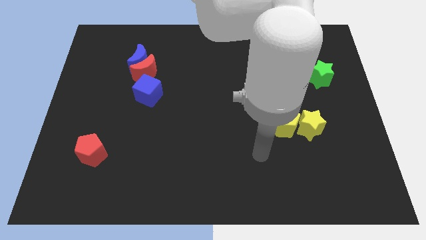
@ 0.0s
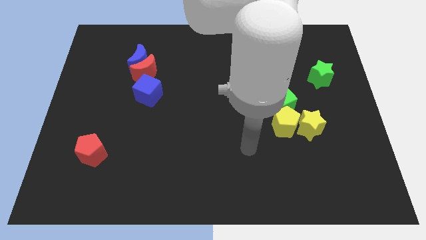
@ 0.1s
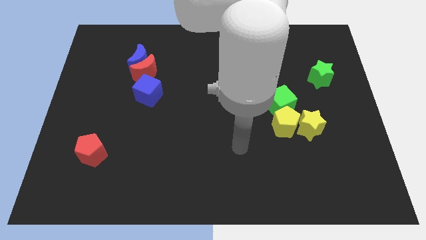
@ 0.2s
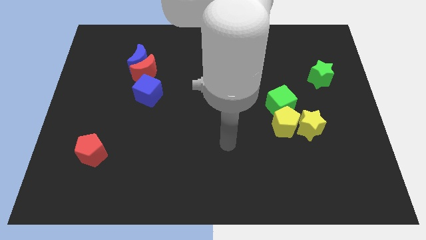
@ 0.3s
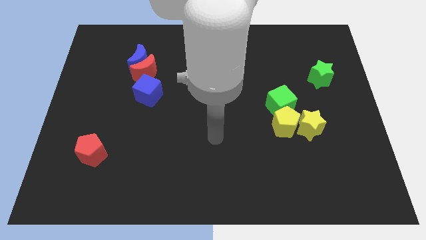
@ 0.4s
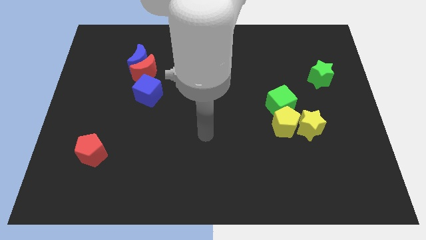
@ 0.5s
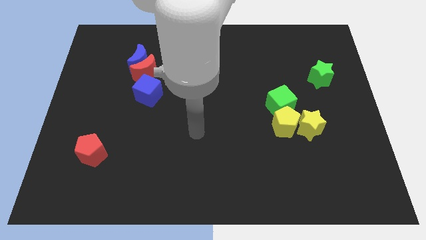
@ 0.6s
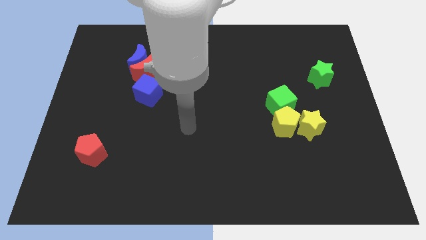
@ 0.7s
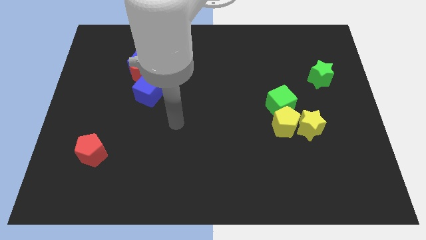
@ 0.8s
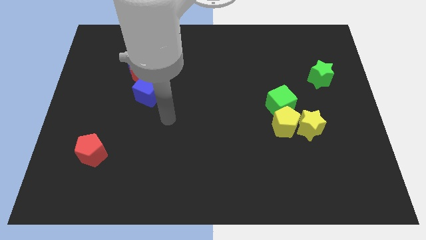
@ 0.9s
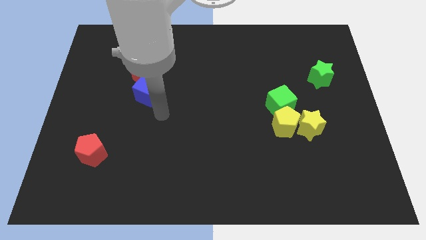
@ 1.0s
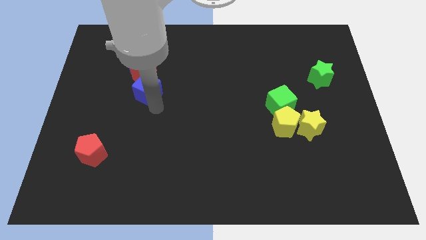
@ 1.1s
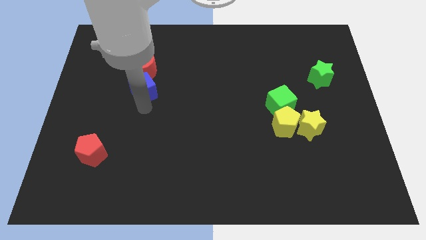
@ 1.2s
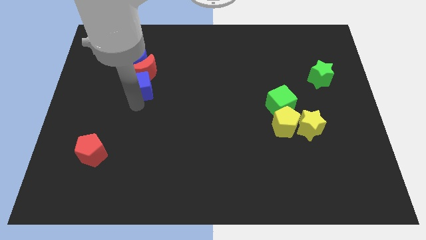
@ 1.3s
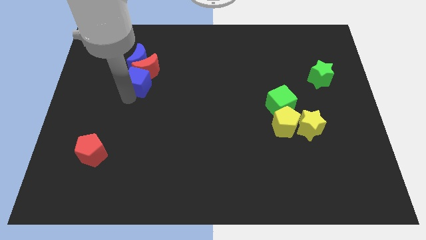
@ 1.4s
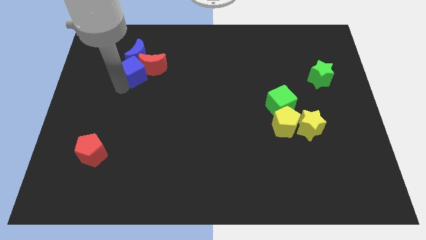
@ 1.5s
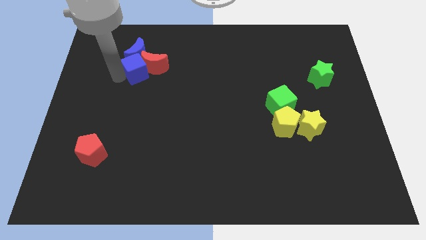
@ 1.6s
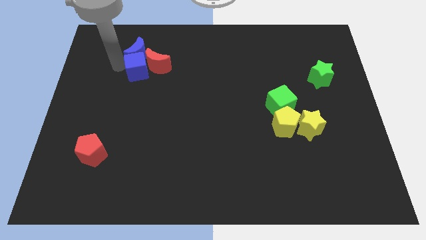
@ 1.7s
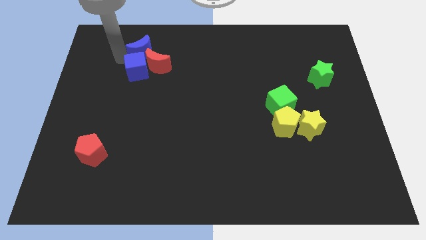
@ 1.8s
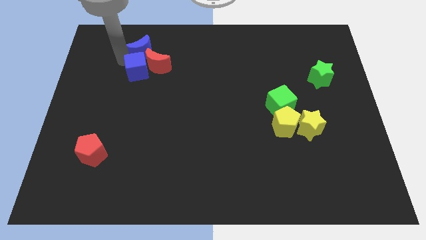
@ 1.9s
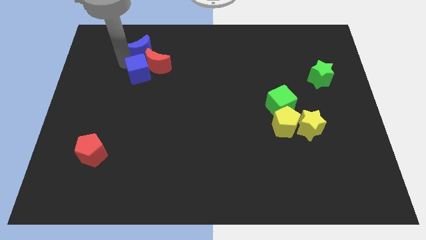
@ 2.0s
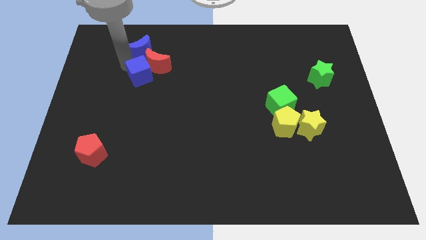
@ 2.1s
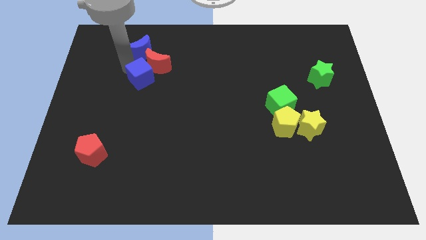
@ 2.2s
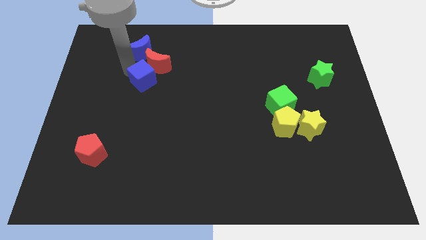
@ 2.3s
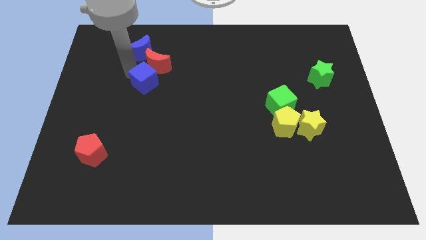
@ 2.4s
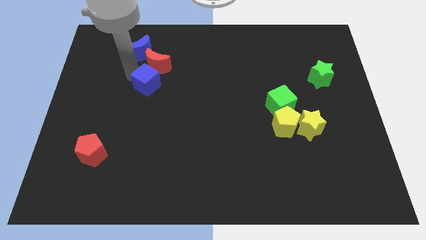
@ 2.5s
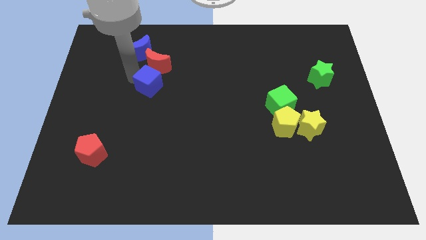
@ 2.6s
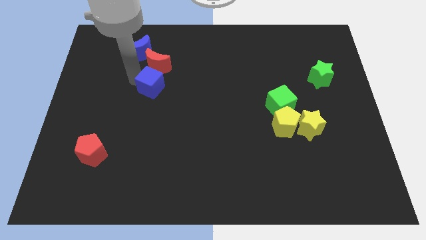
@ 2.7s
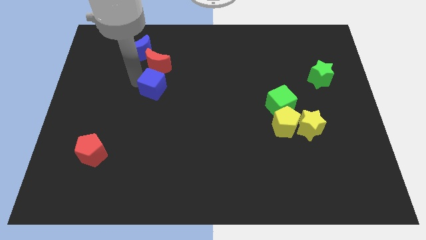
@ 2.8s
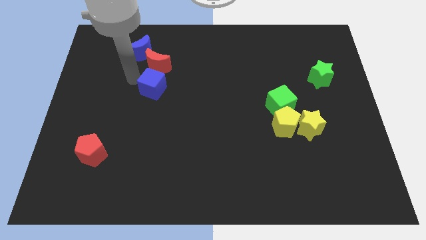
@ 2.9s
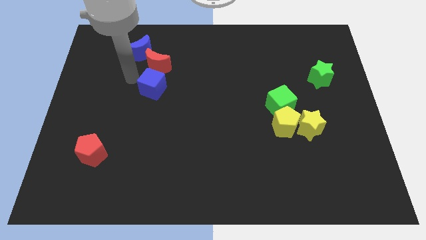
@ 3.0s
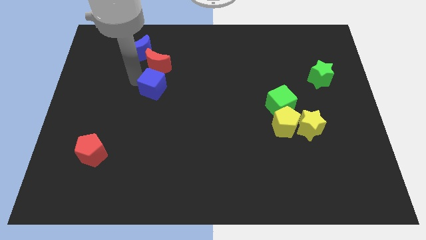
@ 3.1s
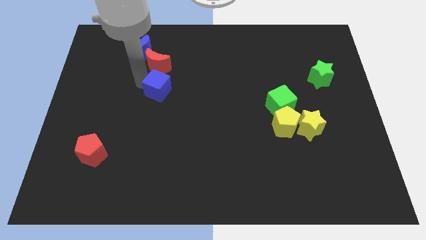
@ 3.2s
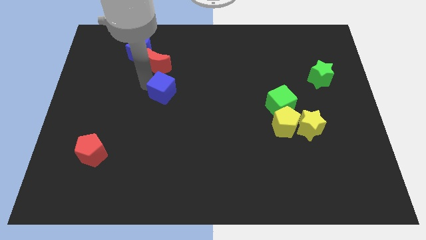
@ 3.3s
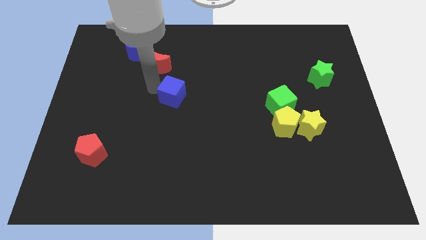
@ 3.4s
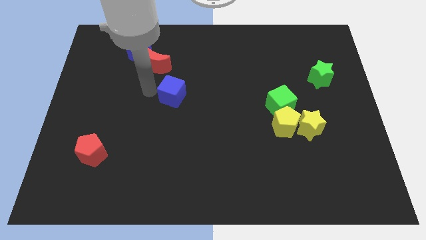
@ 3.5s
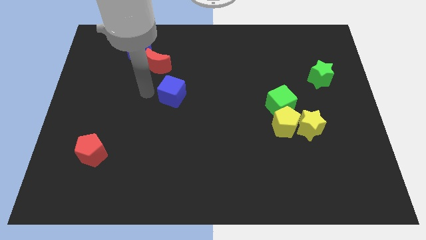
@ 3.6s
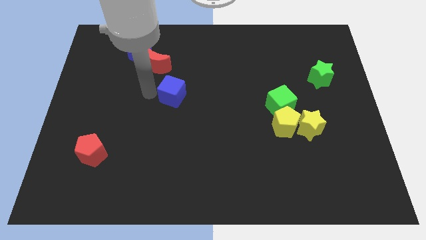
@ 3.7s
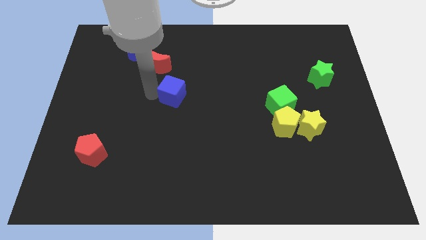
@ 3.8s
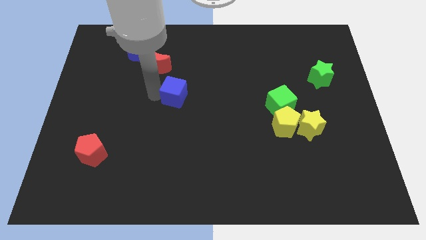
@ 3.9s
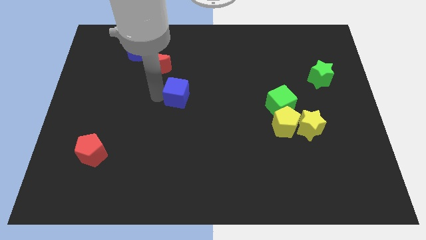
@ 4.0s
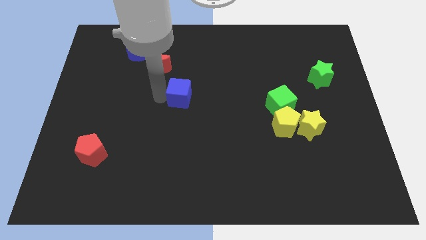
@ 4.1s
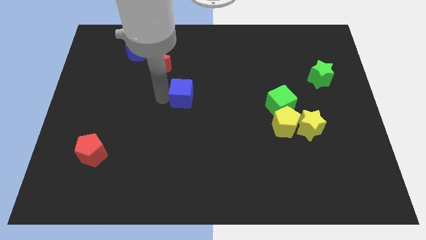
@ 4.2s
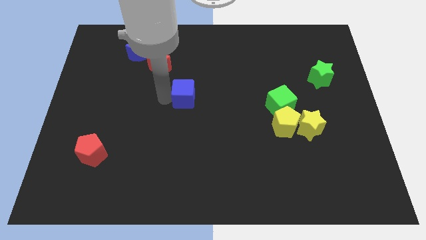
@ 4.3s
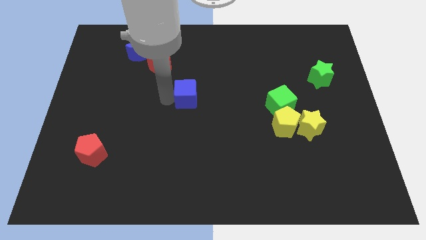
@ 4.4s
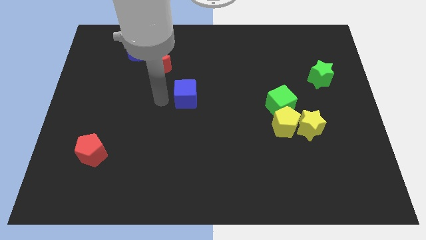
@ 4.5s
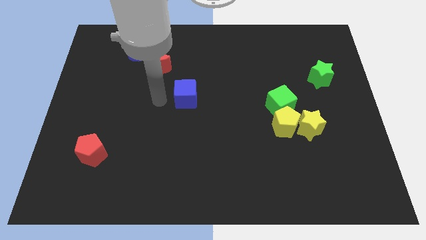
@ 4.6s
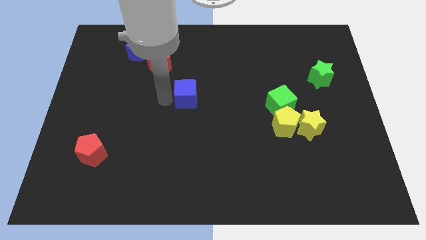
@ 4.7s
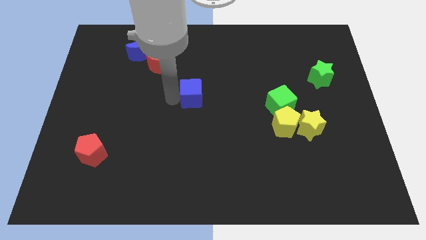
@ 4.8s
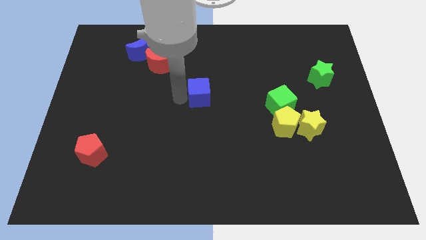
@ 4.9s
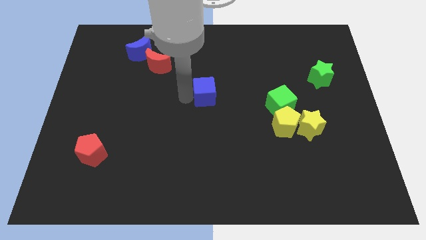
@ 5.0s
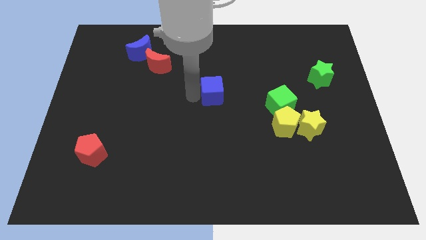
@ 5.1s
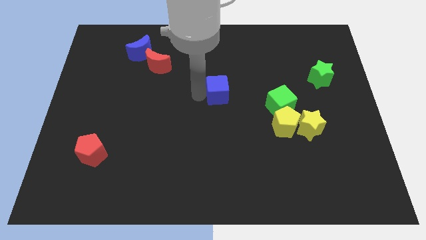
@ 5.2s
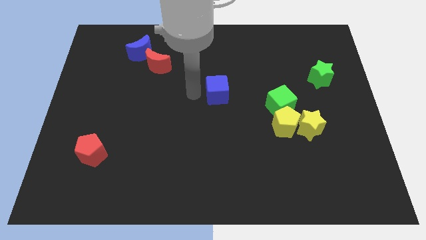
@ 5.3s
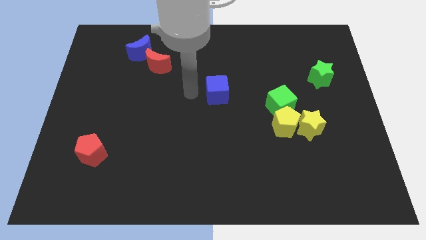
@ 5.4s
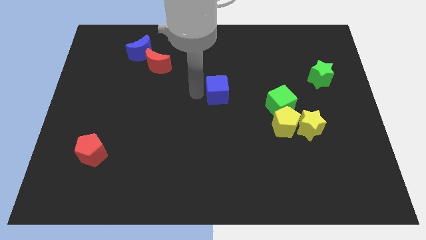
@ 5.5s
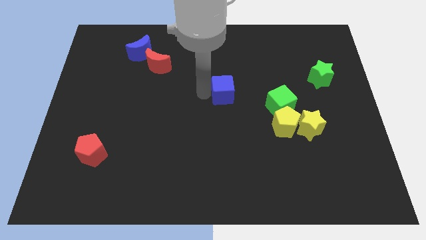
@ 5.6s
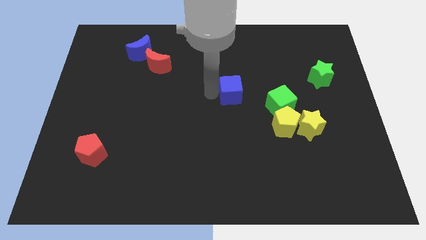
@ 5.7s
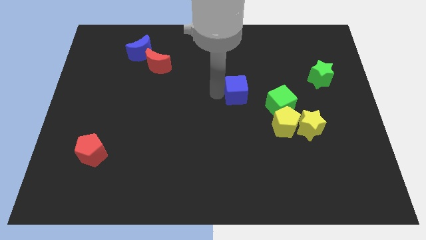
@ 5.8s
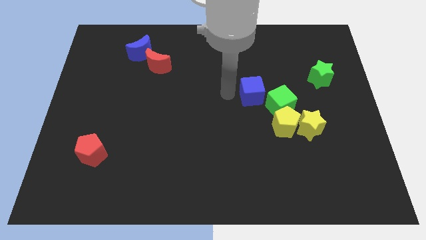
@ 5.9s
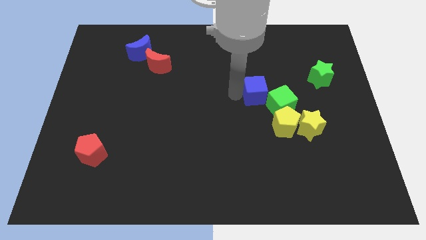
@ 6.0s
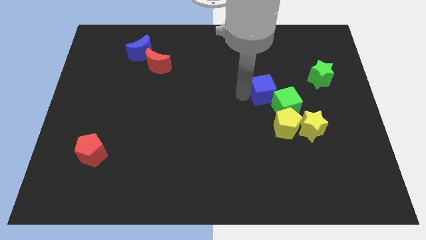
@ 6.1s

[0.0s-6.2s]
move the blue cube to the top side of the yellow pentagon
